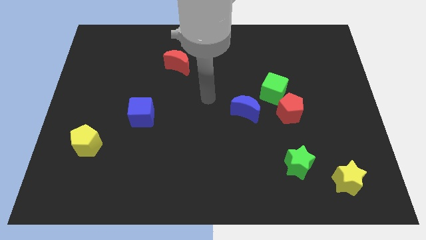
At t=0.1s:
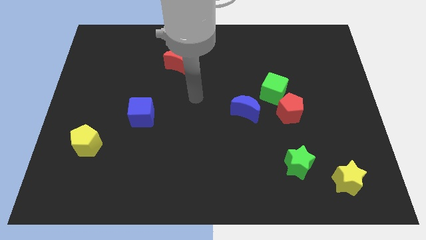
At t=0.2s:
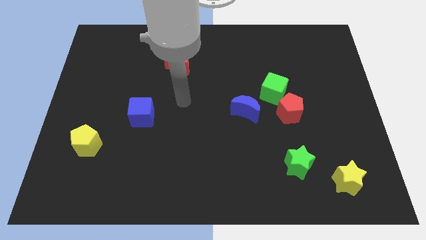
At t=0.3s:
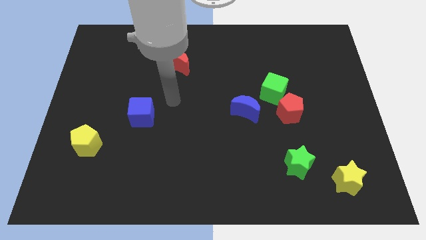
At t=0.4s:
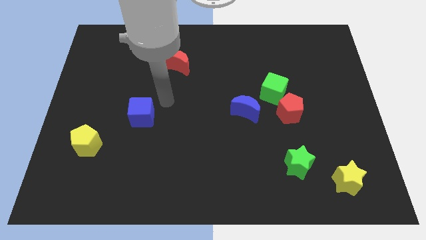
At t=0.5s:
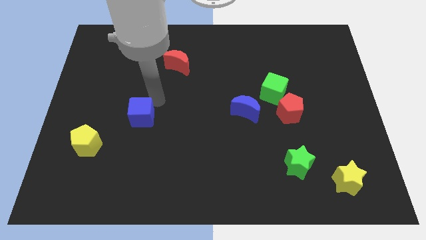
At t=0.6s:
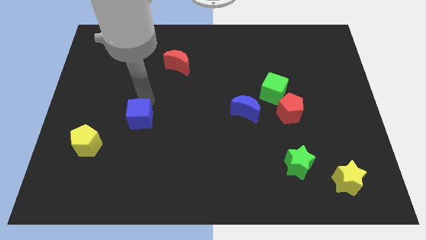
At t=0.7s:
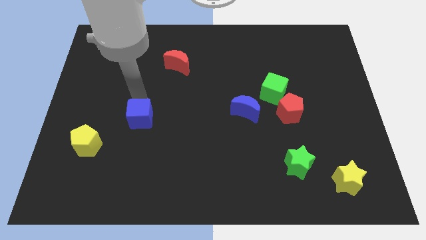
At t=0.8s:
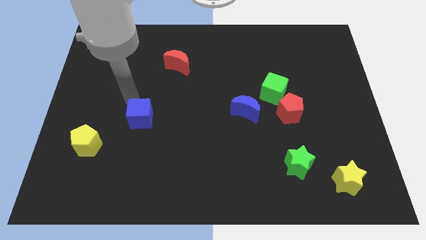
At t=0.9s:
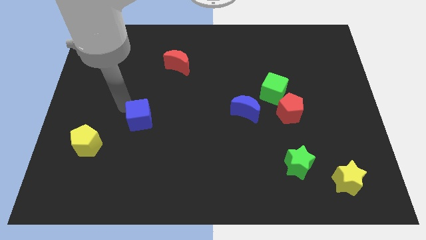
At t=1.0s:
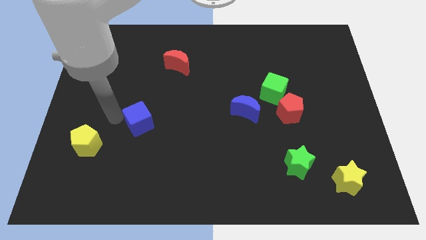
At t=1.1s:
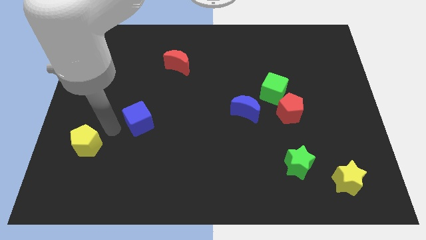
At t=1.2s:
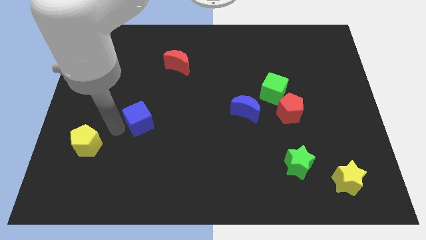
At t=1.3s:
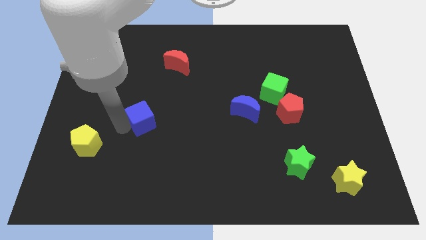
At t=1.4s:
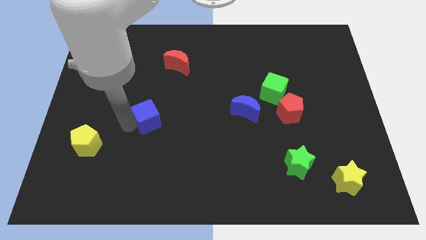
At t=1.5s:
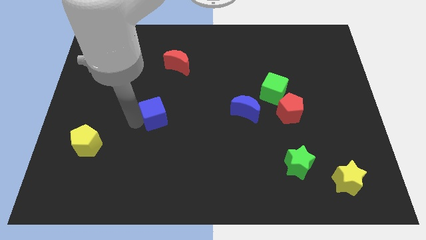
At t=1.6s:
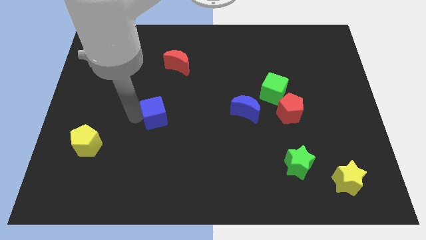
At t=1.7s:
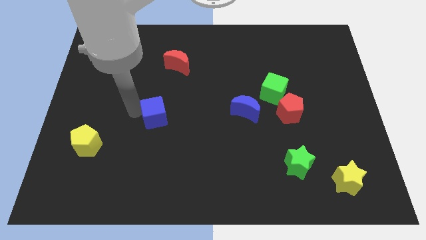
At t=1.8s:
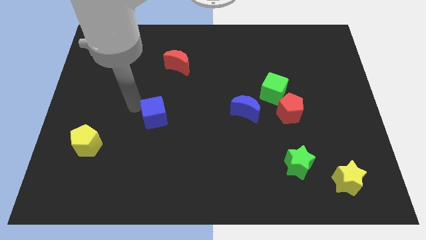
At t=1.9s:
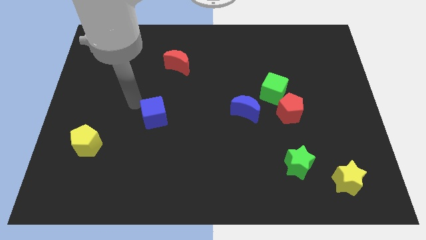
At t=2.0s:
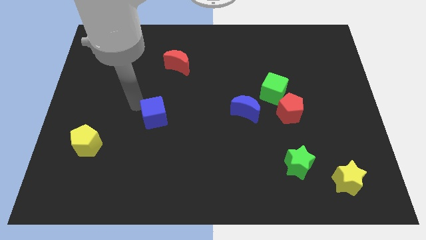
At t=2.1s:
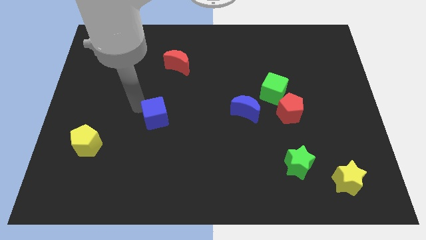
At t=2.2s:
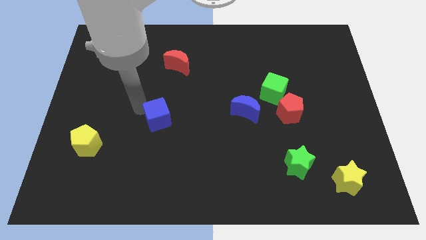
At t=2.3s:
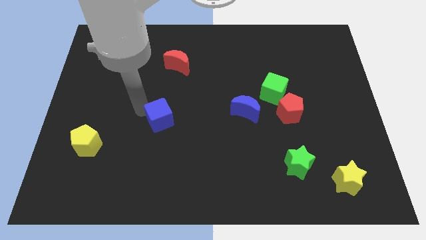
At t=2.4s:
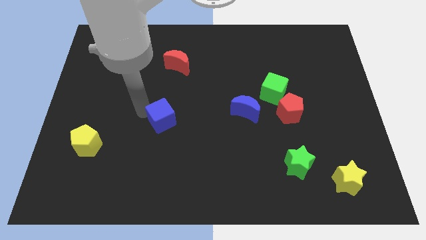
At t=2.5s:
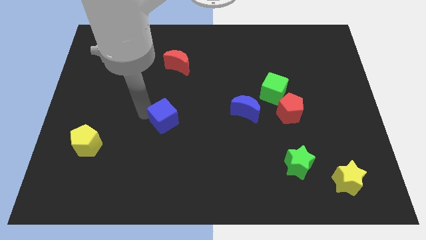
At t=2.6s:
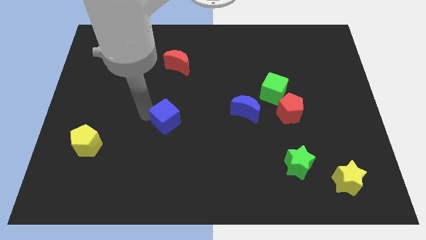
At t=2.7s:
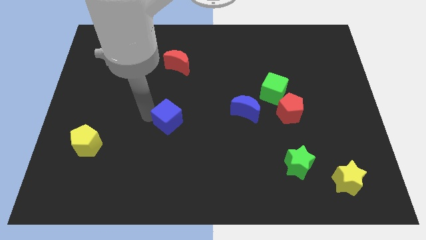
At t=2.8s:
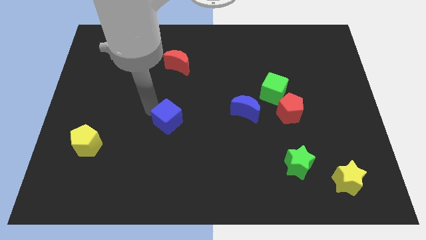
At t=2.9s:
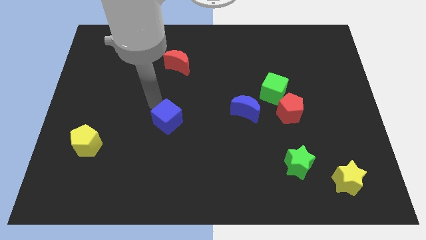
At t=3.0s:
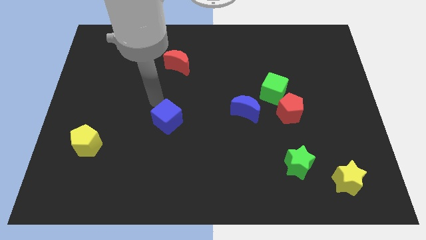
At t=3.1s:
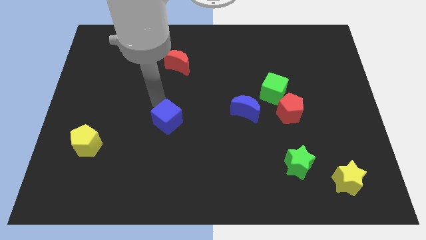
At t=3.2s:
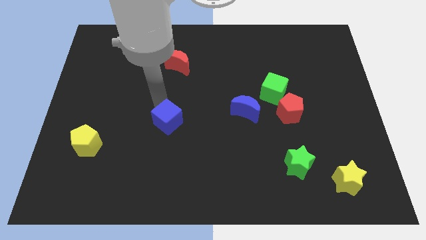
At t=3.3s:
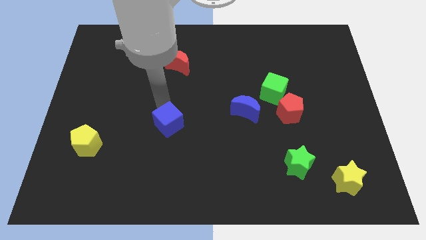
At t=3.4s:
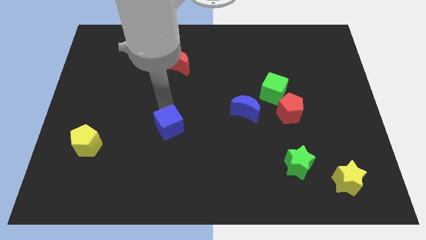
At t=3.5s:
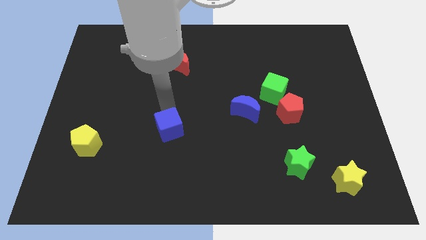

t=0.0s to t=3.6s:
push the blue cube downwards and then to the right a bit

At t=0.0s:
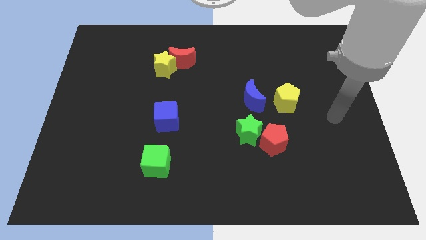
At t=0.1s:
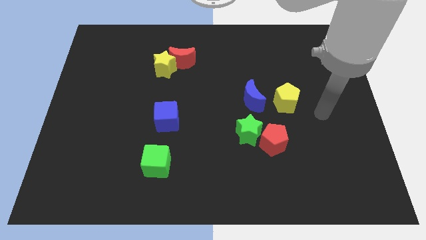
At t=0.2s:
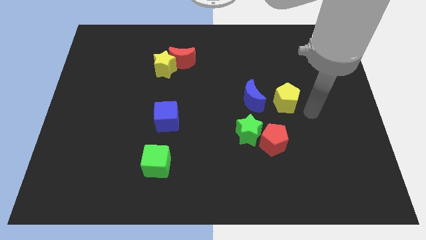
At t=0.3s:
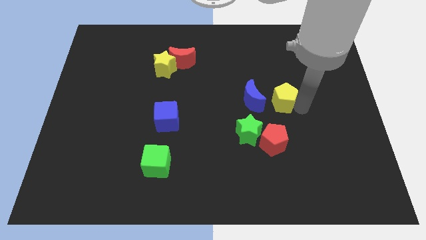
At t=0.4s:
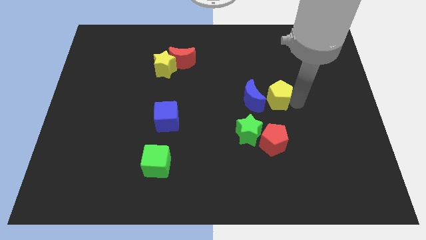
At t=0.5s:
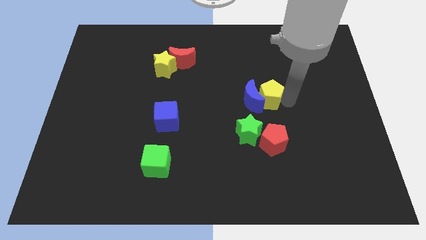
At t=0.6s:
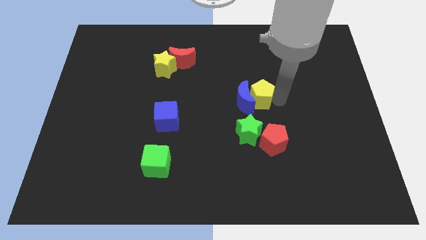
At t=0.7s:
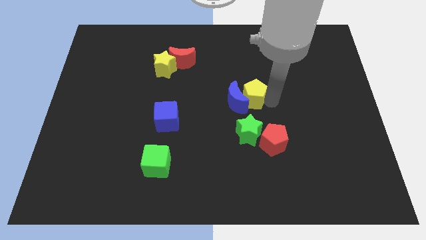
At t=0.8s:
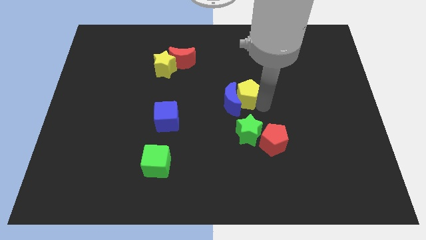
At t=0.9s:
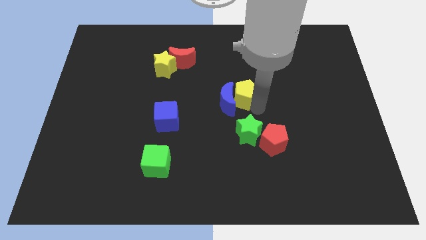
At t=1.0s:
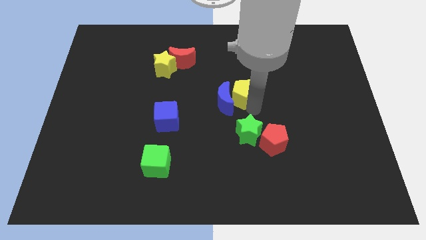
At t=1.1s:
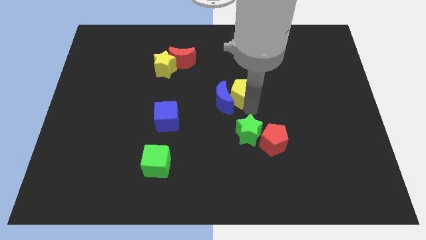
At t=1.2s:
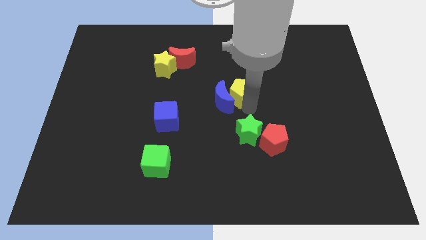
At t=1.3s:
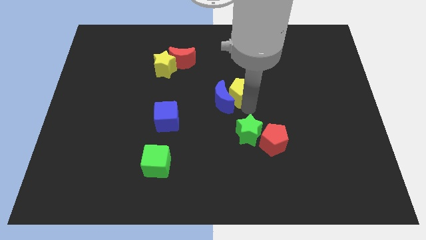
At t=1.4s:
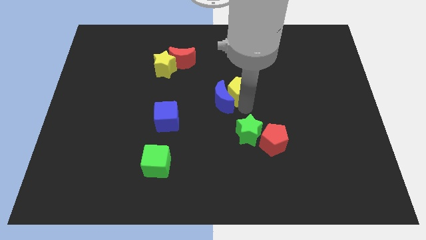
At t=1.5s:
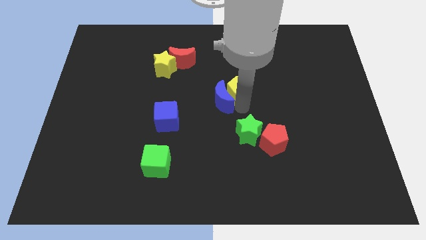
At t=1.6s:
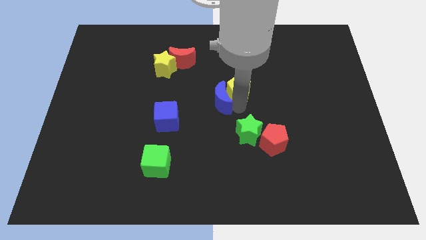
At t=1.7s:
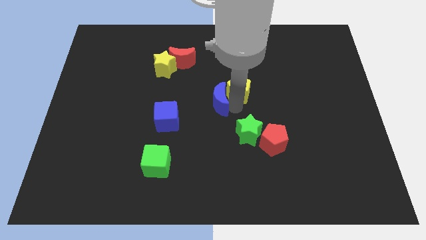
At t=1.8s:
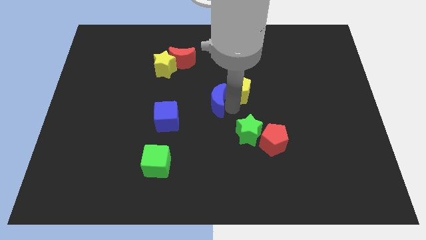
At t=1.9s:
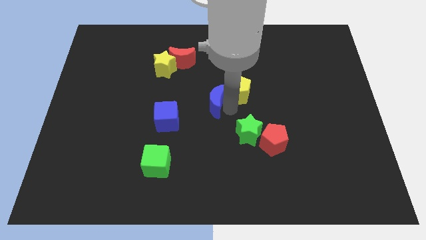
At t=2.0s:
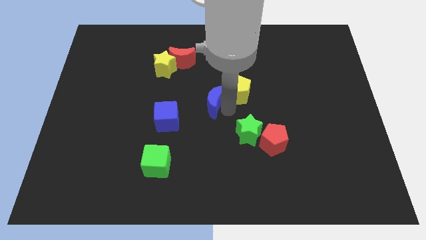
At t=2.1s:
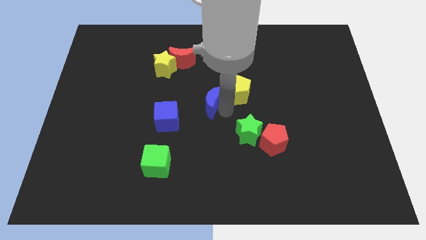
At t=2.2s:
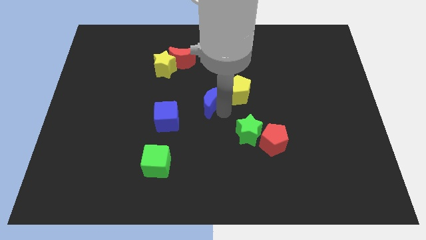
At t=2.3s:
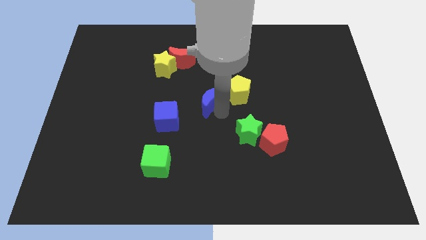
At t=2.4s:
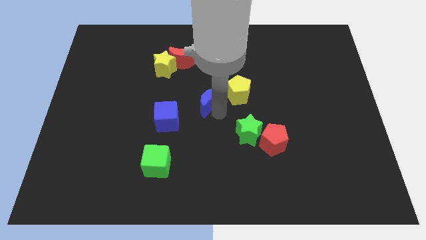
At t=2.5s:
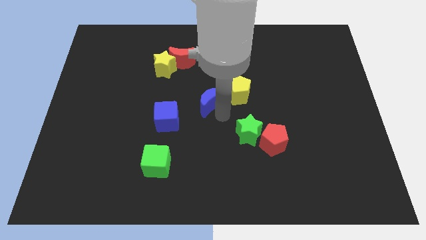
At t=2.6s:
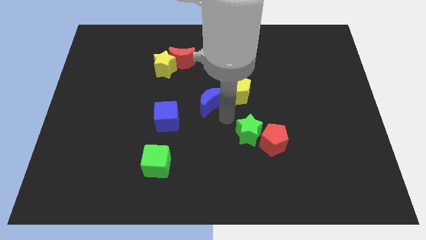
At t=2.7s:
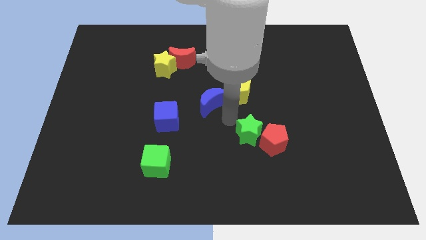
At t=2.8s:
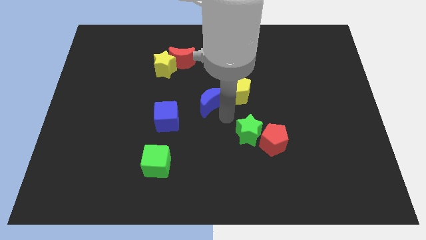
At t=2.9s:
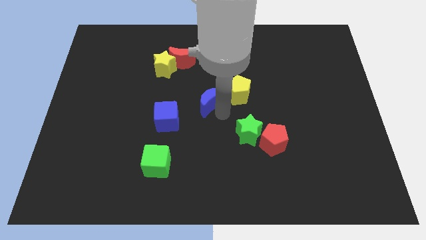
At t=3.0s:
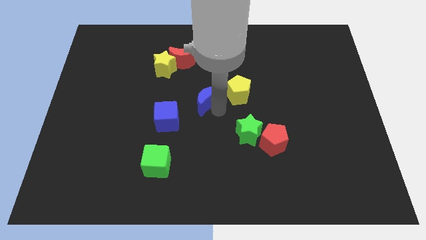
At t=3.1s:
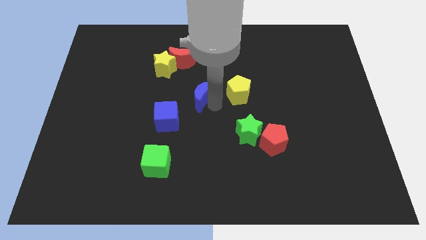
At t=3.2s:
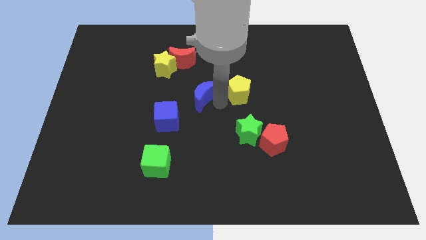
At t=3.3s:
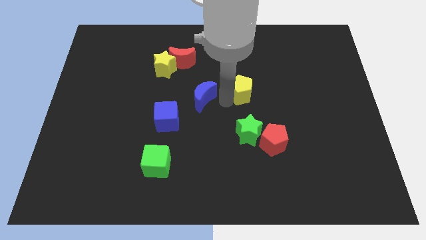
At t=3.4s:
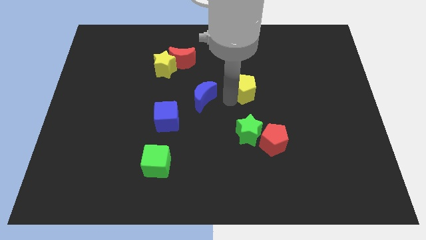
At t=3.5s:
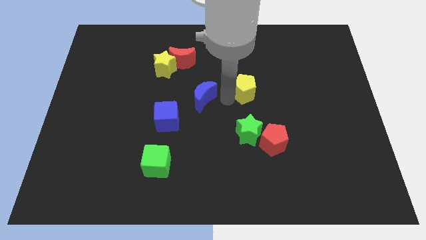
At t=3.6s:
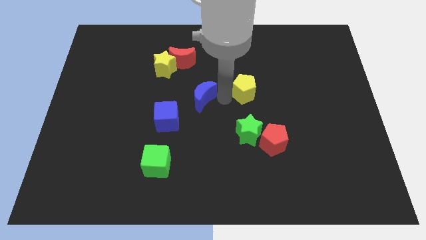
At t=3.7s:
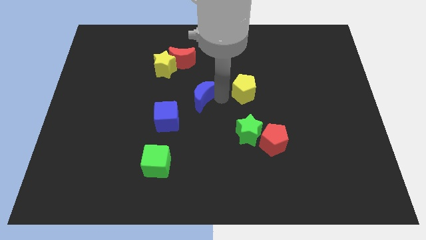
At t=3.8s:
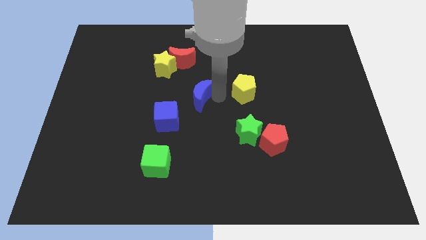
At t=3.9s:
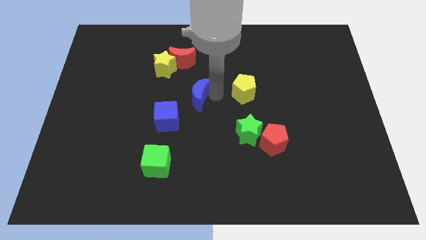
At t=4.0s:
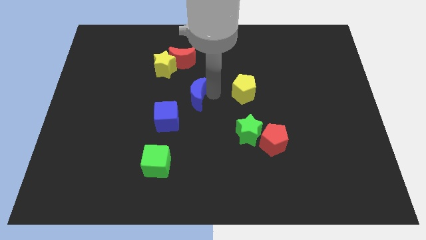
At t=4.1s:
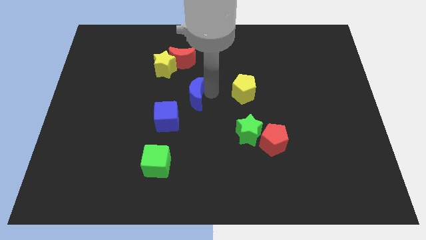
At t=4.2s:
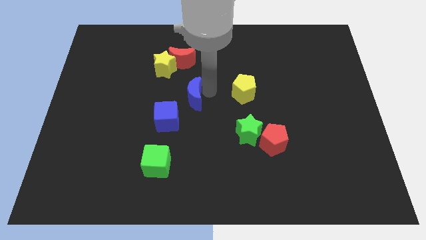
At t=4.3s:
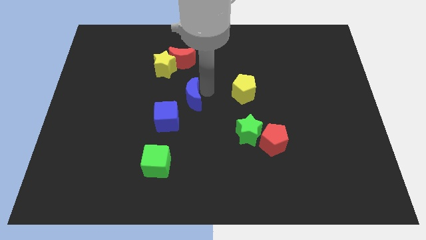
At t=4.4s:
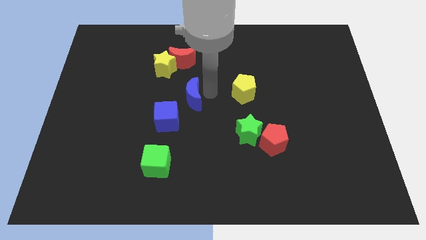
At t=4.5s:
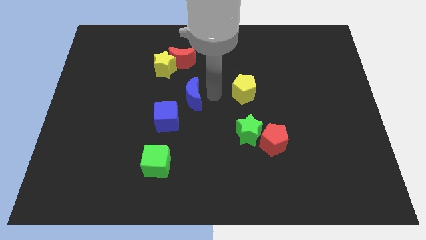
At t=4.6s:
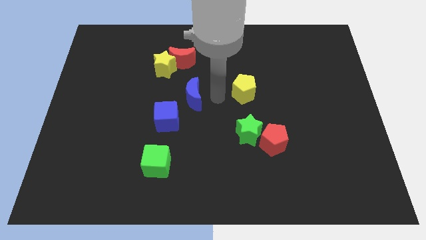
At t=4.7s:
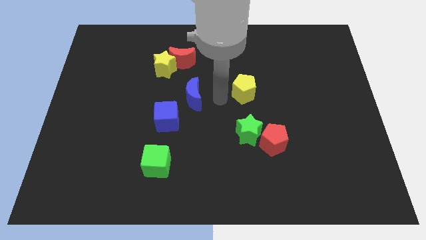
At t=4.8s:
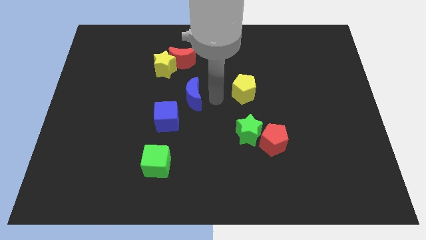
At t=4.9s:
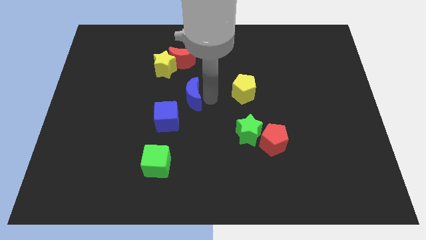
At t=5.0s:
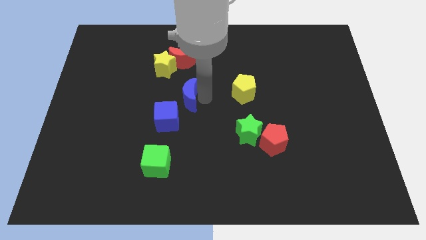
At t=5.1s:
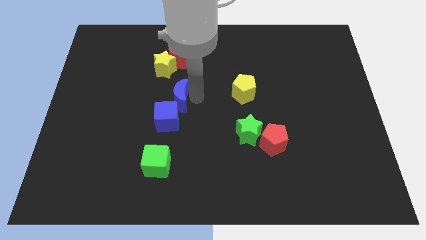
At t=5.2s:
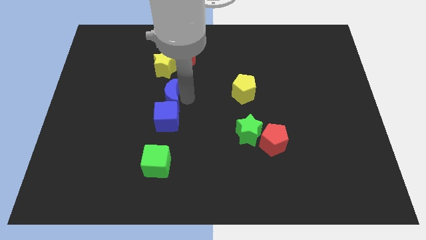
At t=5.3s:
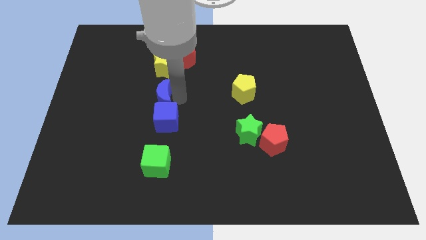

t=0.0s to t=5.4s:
push the blue moon left
